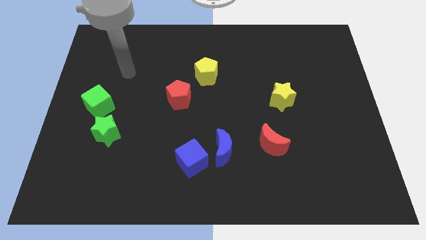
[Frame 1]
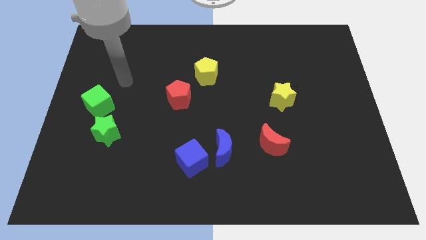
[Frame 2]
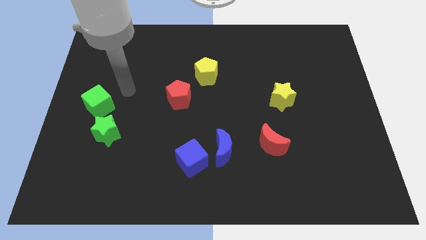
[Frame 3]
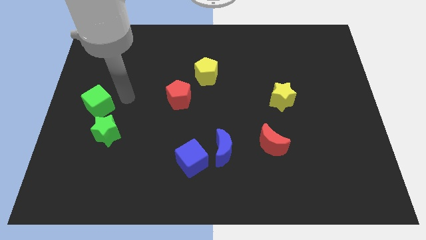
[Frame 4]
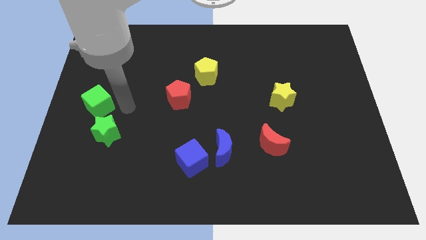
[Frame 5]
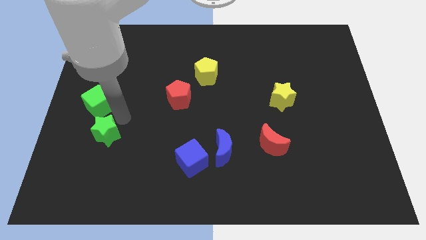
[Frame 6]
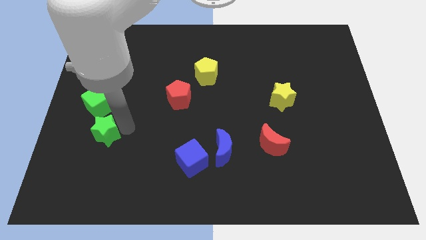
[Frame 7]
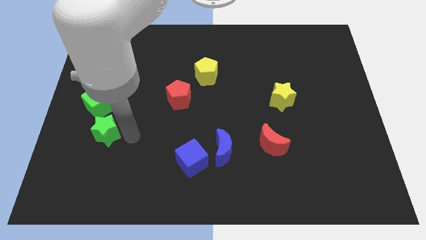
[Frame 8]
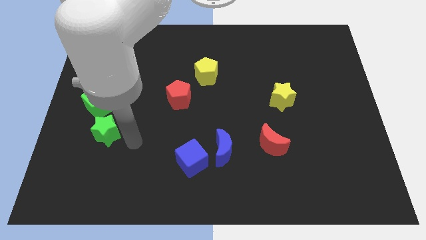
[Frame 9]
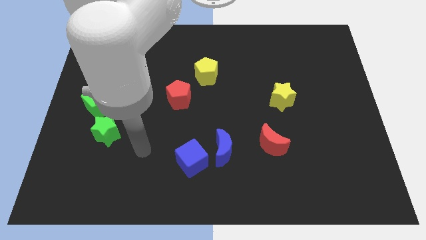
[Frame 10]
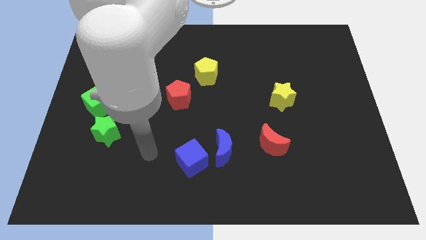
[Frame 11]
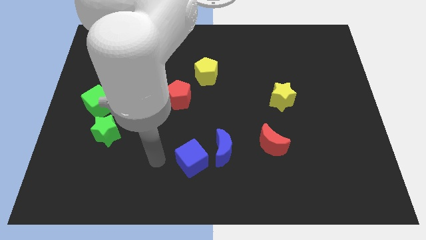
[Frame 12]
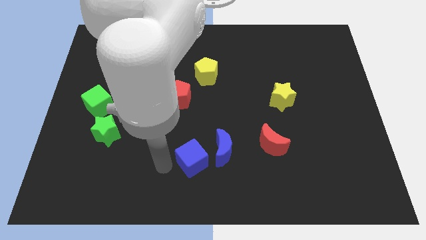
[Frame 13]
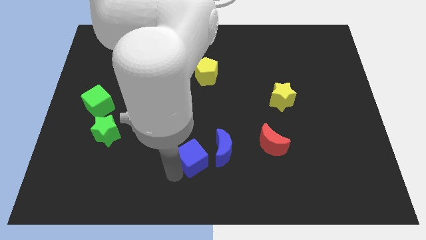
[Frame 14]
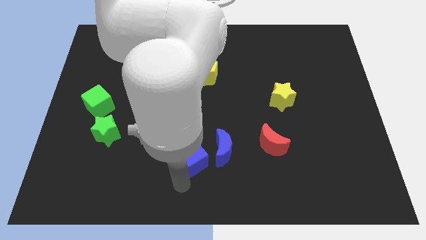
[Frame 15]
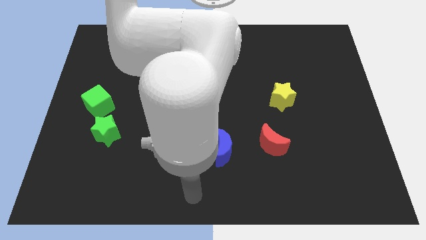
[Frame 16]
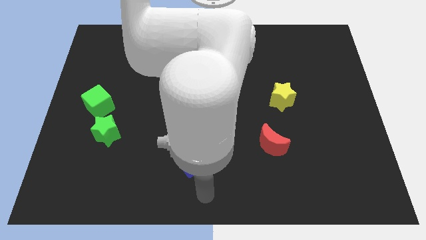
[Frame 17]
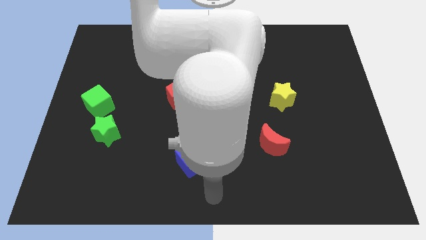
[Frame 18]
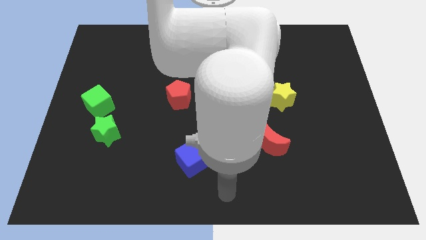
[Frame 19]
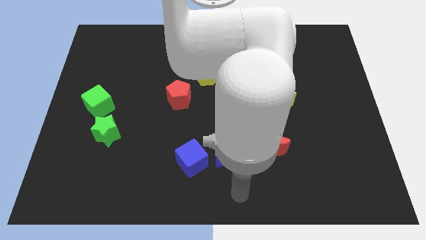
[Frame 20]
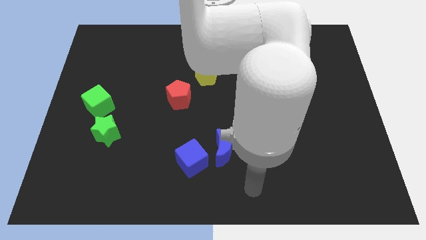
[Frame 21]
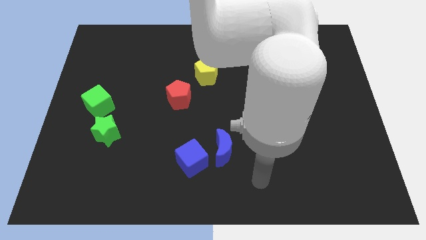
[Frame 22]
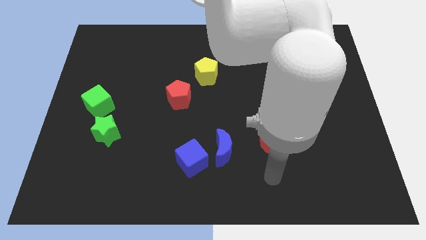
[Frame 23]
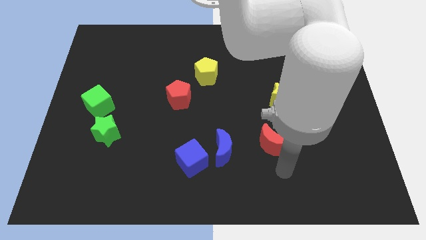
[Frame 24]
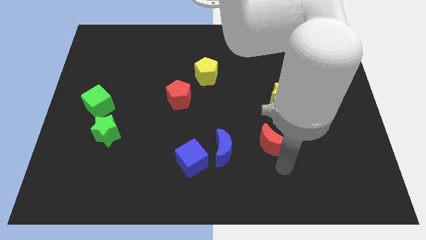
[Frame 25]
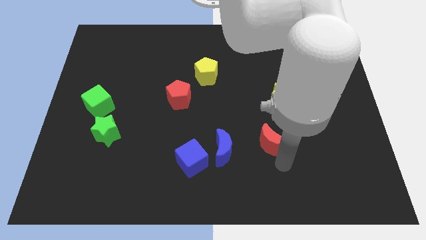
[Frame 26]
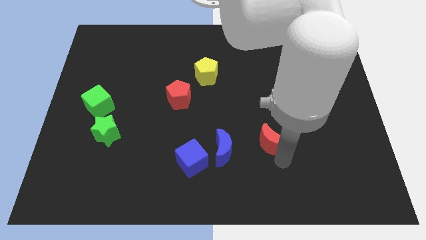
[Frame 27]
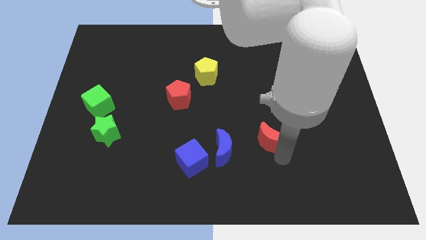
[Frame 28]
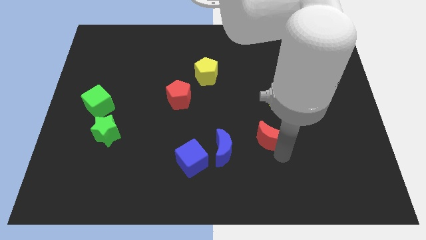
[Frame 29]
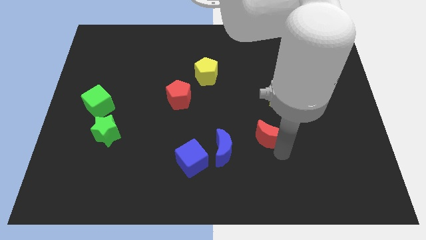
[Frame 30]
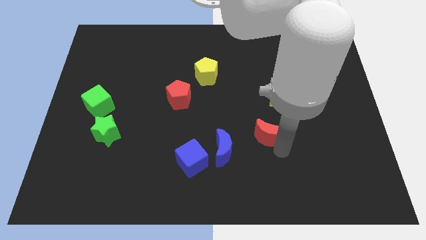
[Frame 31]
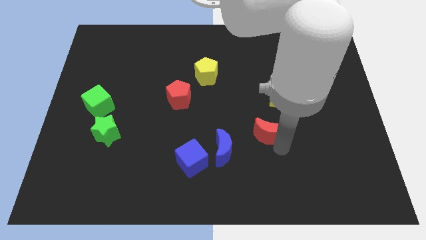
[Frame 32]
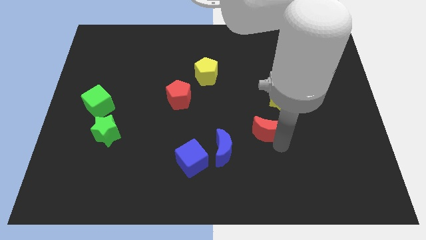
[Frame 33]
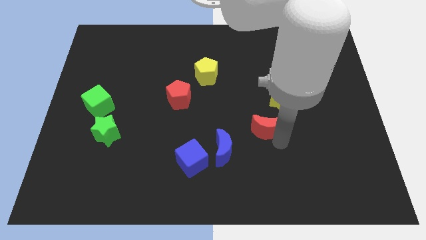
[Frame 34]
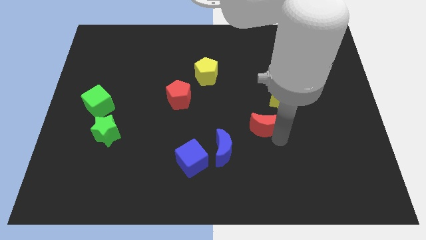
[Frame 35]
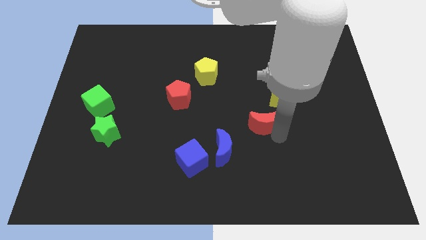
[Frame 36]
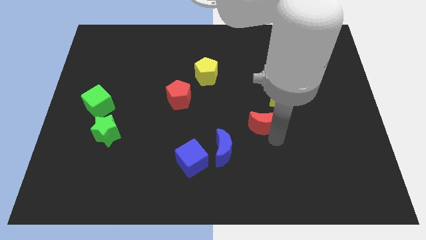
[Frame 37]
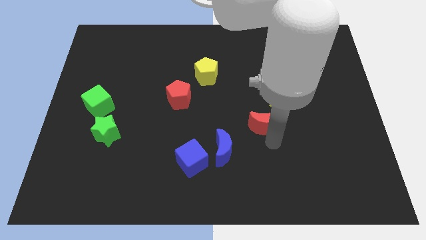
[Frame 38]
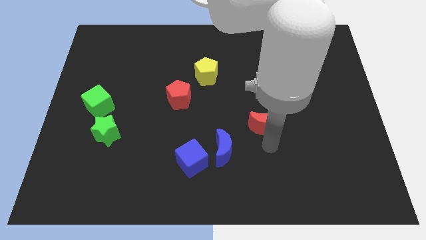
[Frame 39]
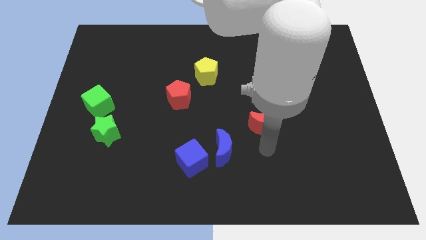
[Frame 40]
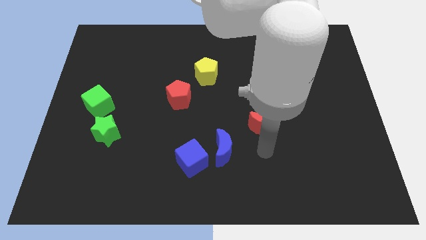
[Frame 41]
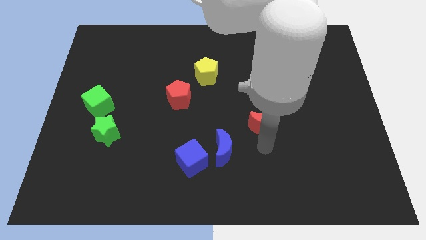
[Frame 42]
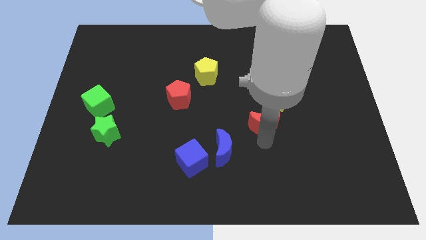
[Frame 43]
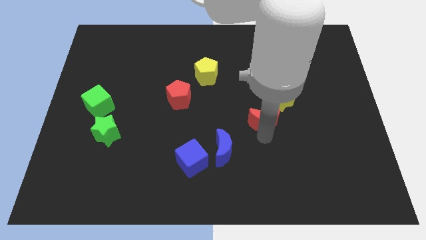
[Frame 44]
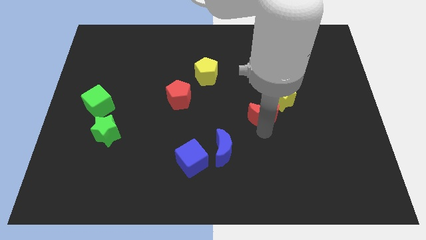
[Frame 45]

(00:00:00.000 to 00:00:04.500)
move the red moon a little bit upwards

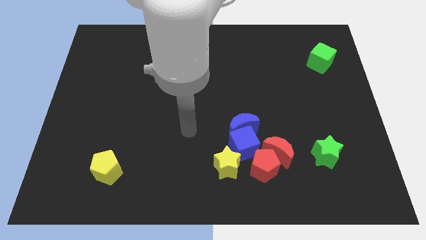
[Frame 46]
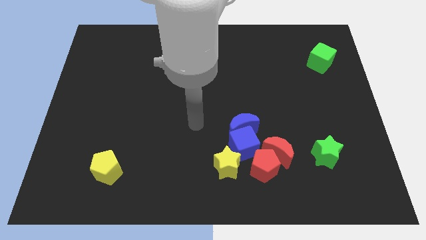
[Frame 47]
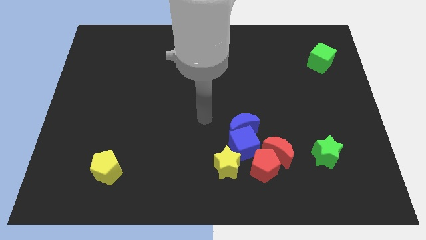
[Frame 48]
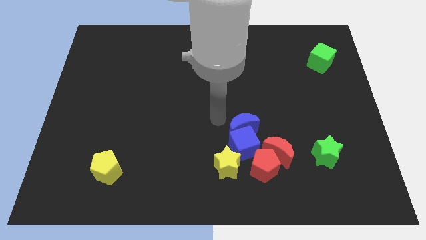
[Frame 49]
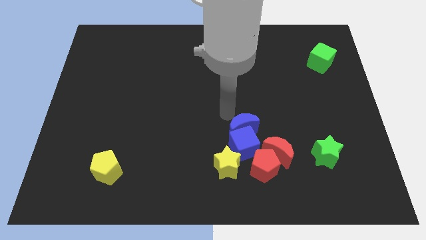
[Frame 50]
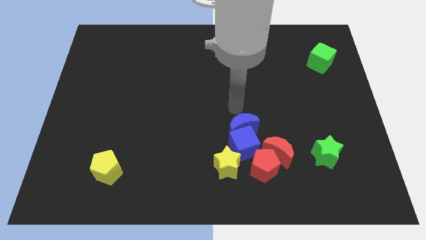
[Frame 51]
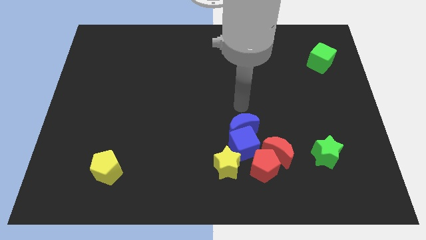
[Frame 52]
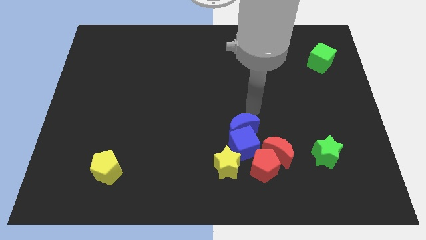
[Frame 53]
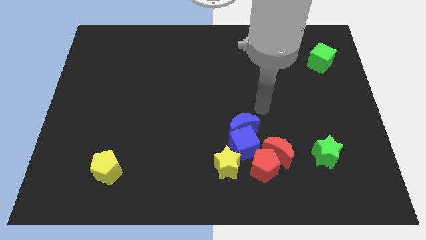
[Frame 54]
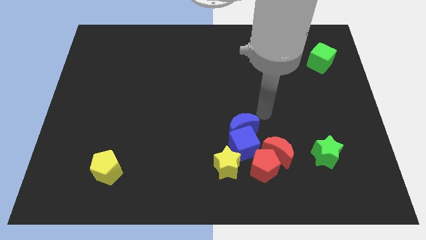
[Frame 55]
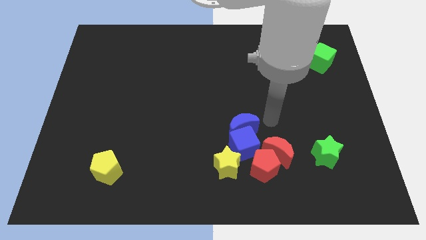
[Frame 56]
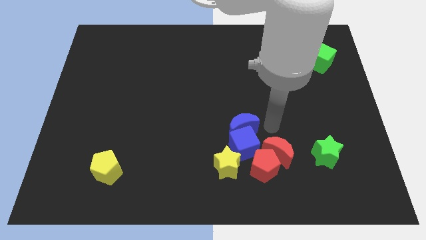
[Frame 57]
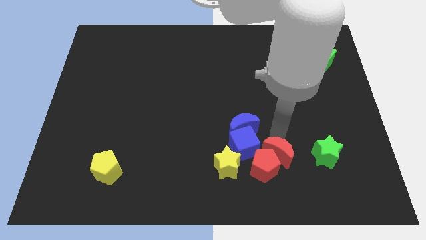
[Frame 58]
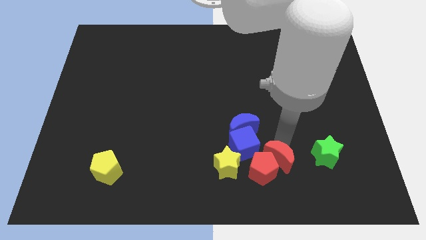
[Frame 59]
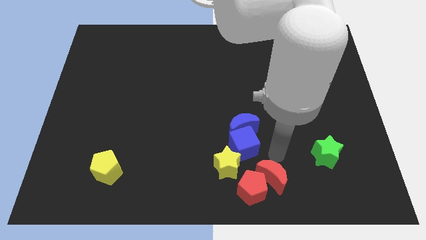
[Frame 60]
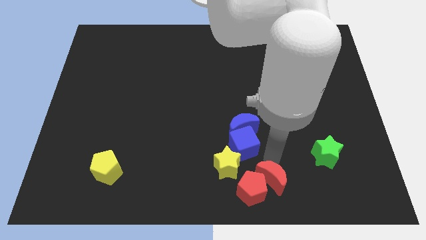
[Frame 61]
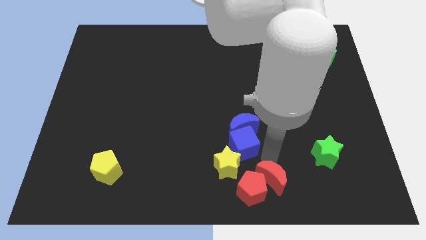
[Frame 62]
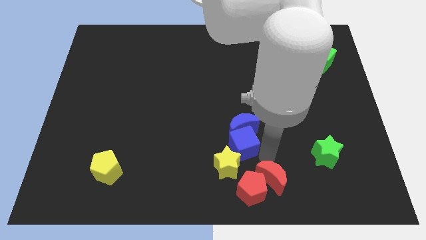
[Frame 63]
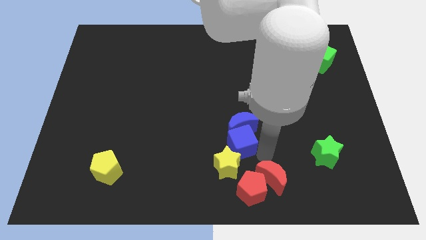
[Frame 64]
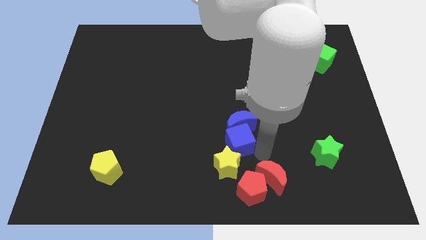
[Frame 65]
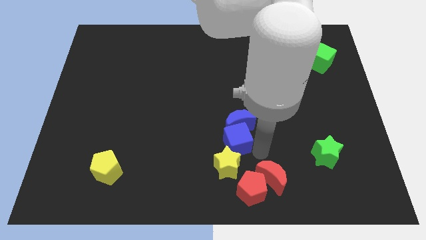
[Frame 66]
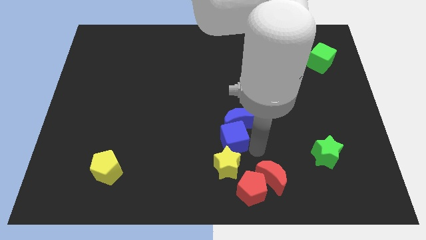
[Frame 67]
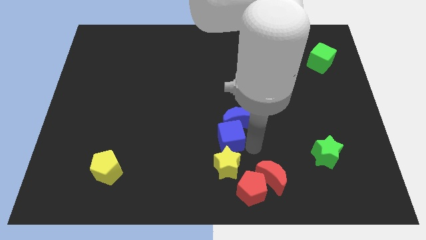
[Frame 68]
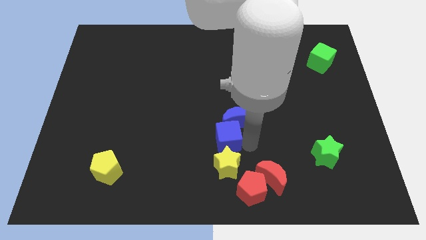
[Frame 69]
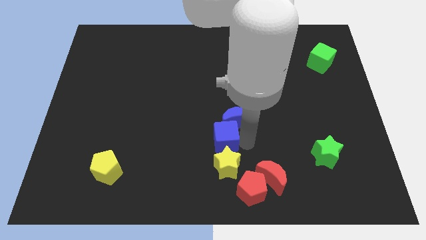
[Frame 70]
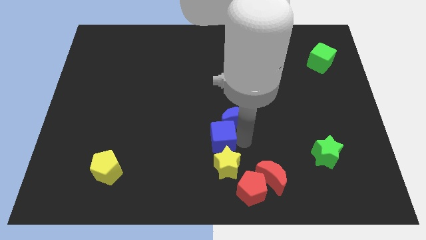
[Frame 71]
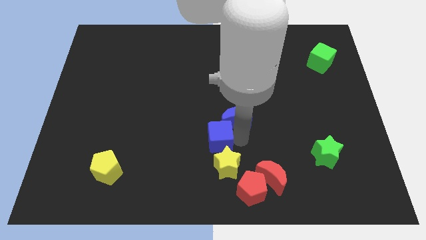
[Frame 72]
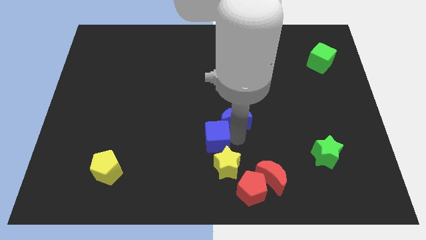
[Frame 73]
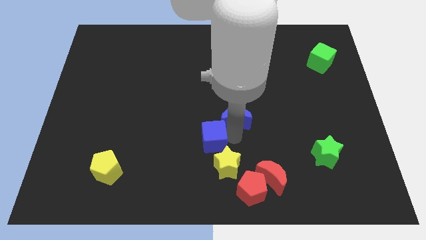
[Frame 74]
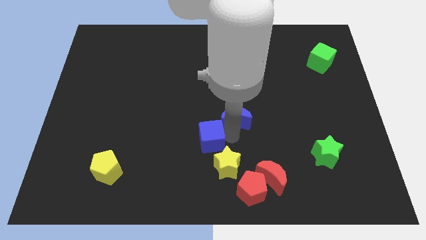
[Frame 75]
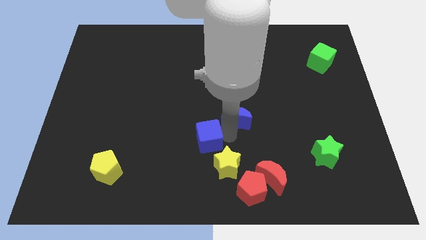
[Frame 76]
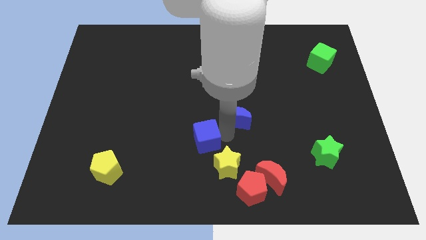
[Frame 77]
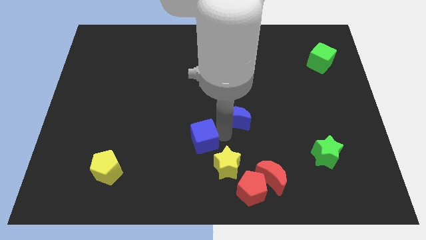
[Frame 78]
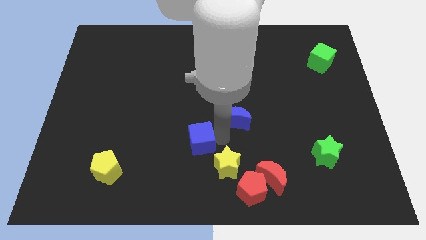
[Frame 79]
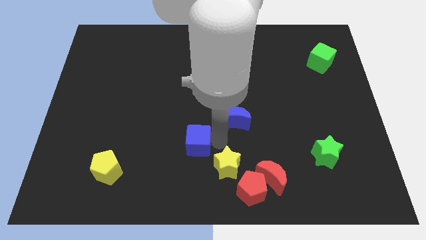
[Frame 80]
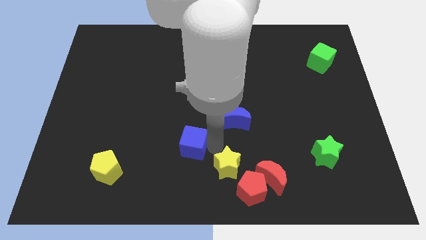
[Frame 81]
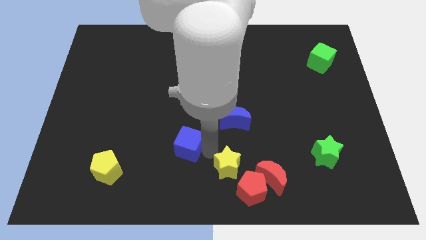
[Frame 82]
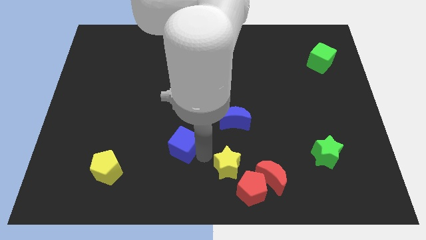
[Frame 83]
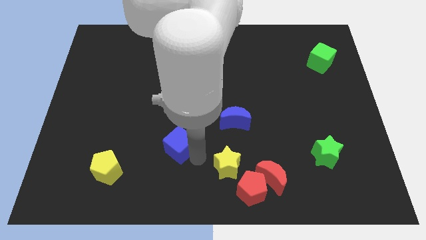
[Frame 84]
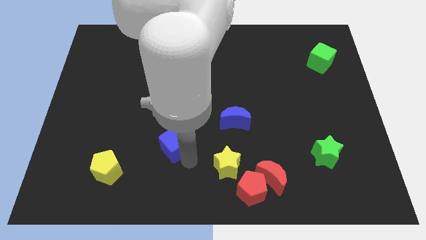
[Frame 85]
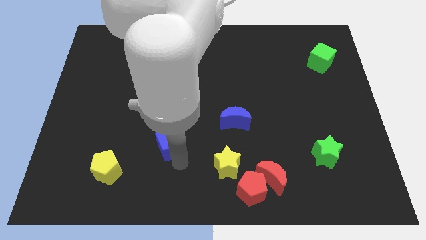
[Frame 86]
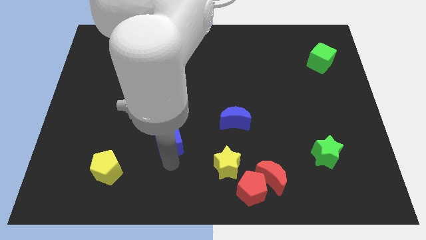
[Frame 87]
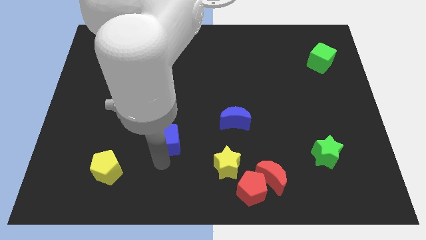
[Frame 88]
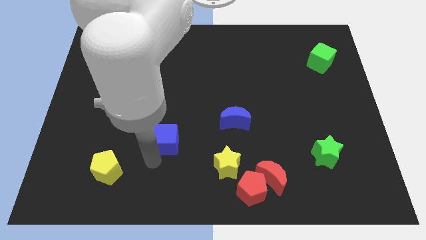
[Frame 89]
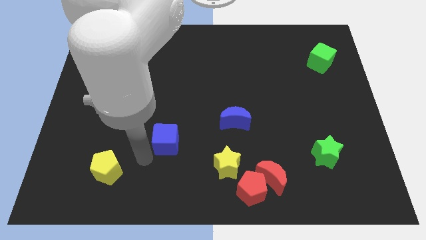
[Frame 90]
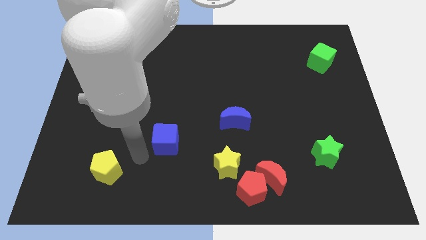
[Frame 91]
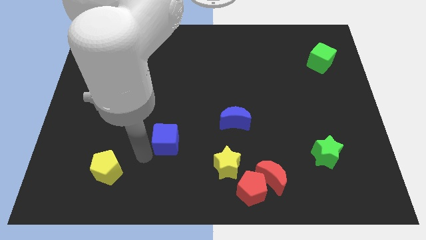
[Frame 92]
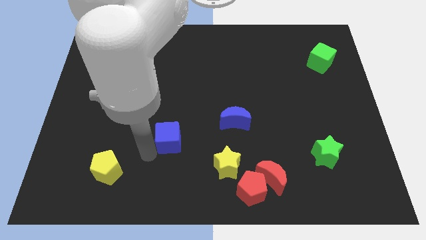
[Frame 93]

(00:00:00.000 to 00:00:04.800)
move the blue cube a little upwards and then to the left
